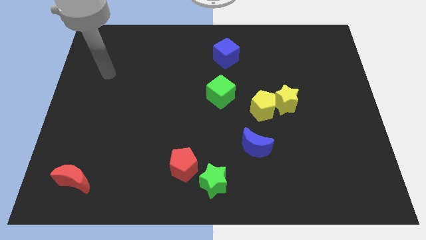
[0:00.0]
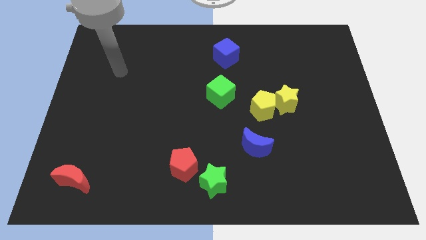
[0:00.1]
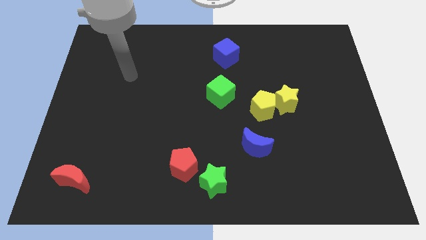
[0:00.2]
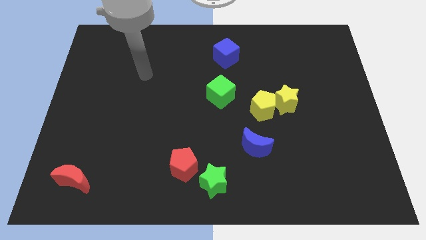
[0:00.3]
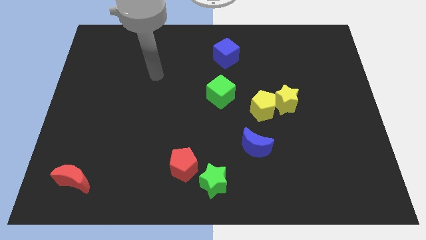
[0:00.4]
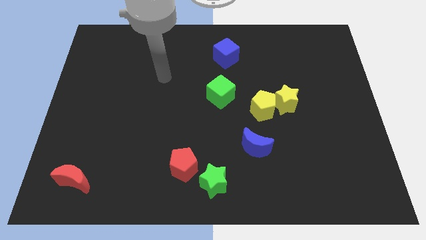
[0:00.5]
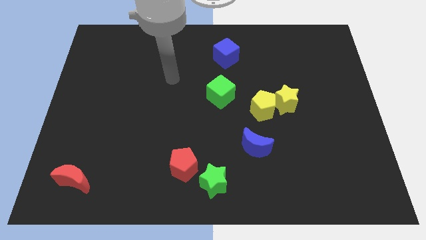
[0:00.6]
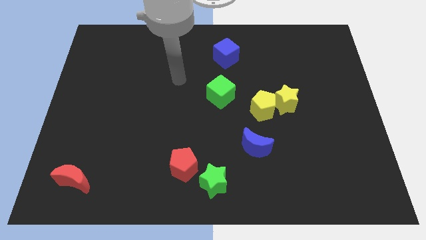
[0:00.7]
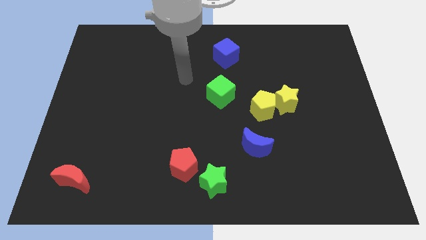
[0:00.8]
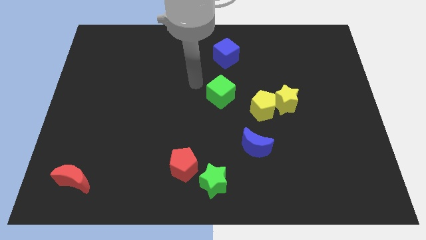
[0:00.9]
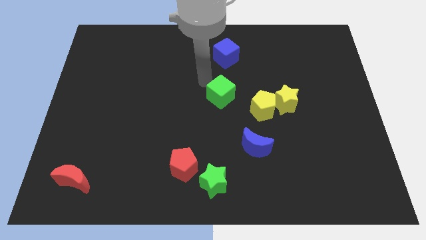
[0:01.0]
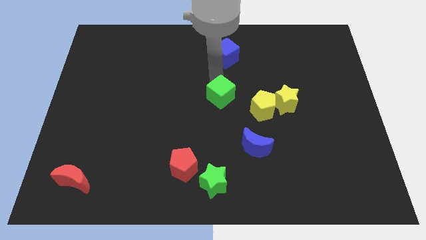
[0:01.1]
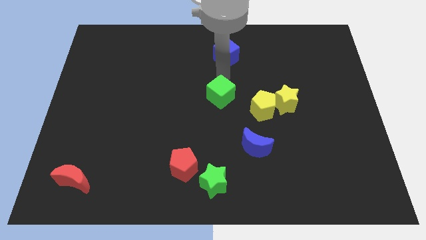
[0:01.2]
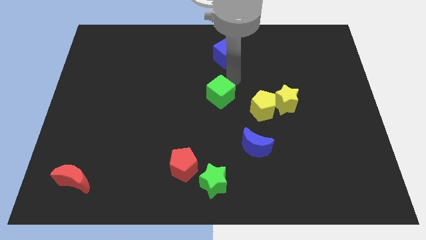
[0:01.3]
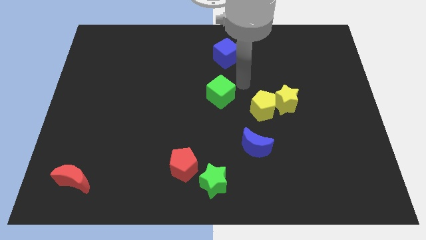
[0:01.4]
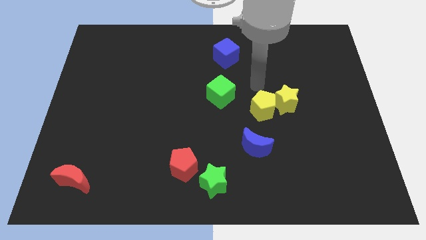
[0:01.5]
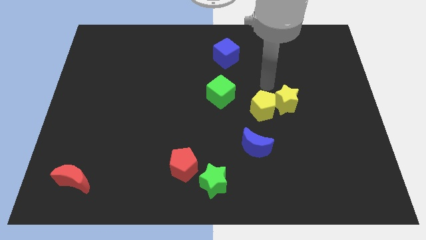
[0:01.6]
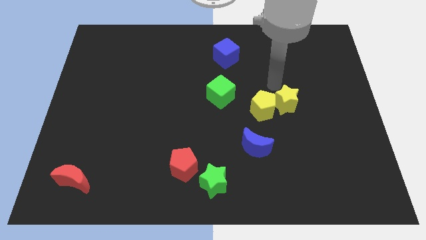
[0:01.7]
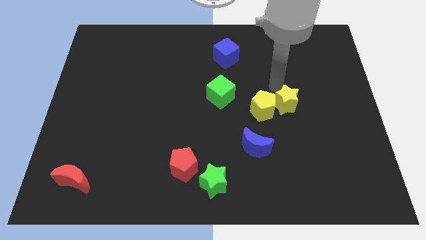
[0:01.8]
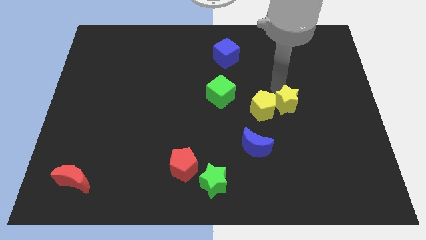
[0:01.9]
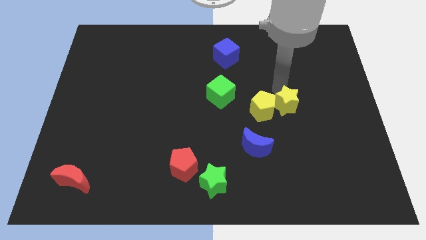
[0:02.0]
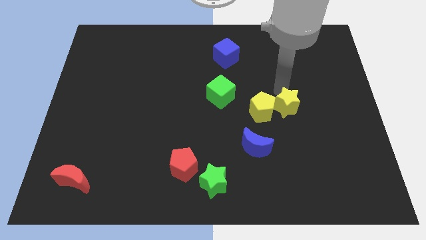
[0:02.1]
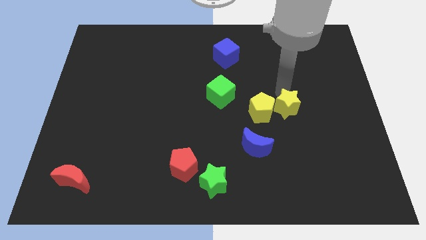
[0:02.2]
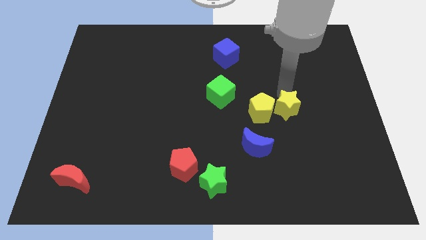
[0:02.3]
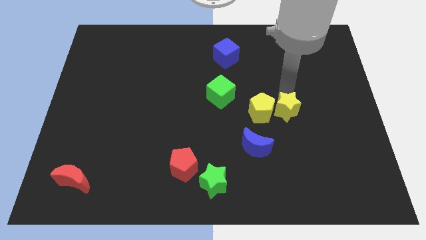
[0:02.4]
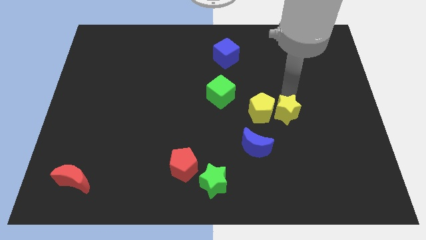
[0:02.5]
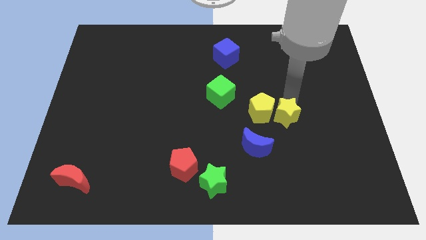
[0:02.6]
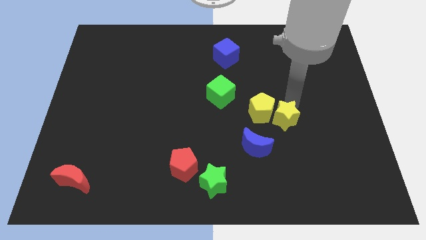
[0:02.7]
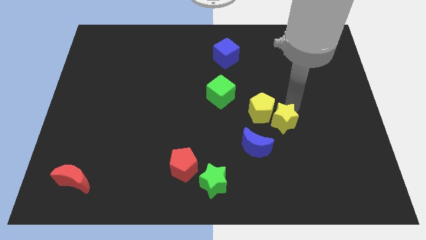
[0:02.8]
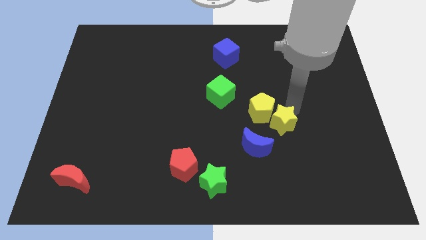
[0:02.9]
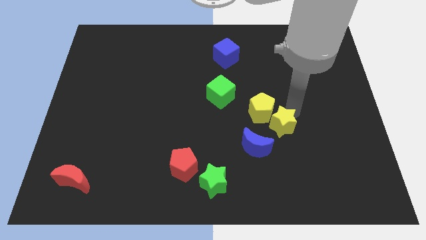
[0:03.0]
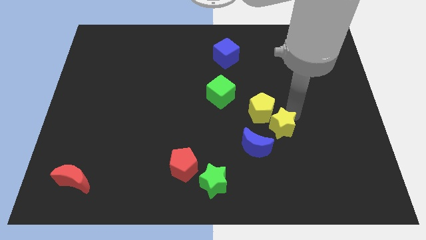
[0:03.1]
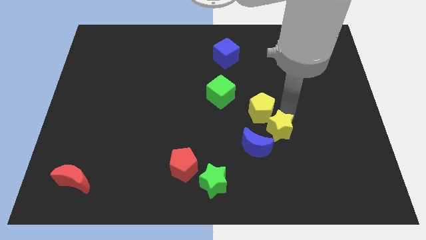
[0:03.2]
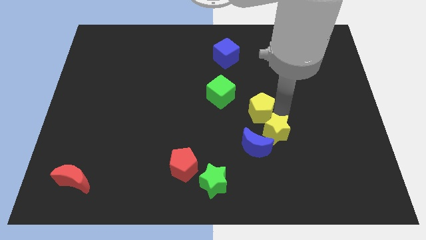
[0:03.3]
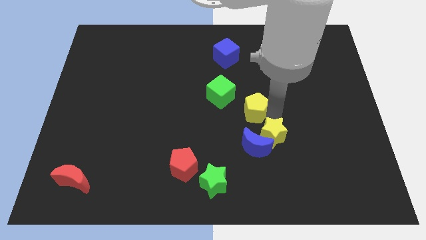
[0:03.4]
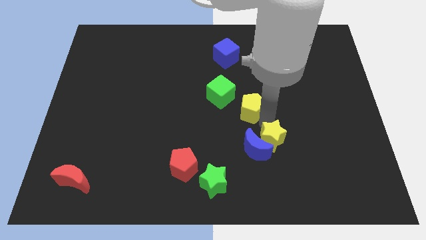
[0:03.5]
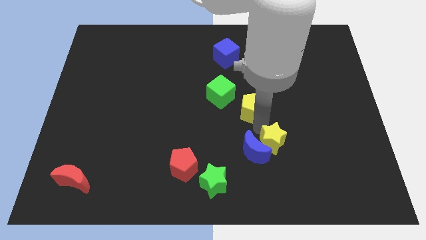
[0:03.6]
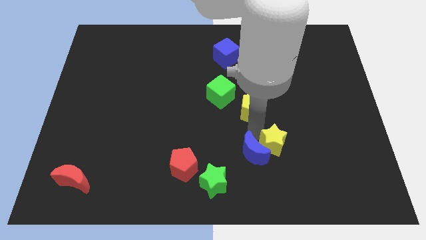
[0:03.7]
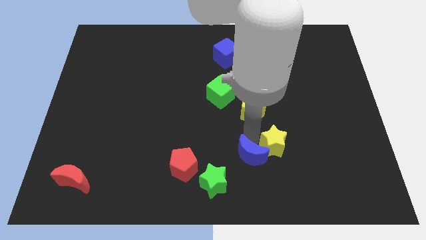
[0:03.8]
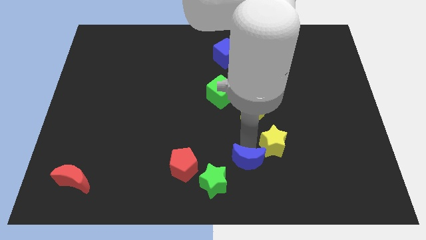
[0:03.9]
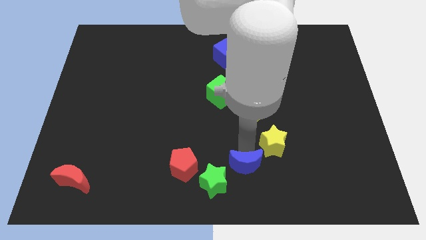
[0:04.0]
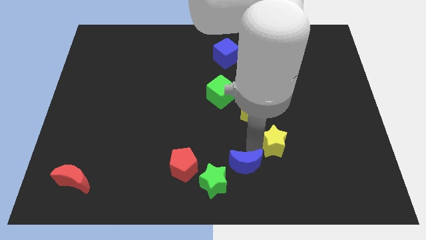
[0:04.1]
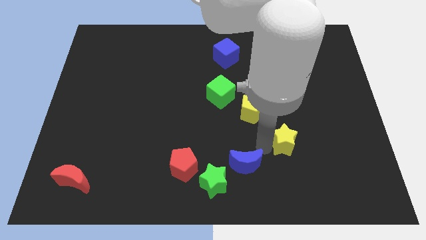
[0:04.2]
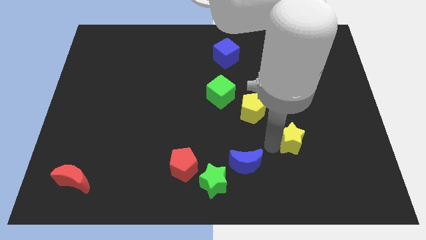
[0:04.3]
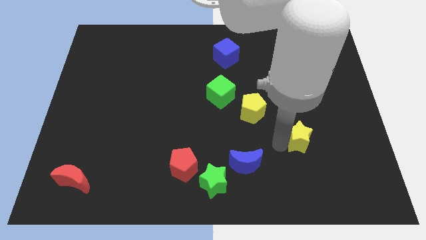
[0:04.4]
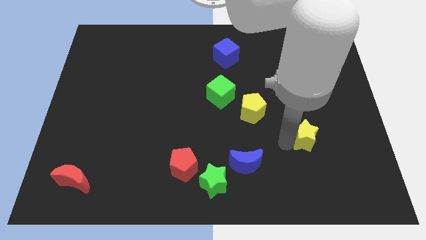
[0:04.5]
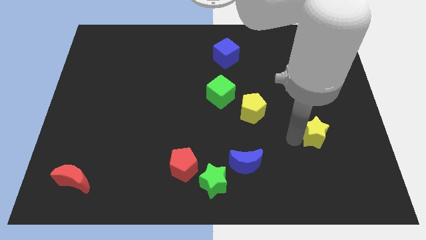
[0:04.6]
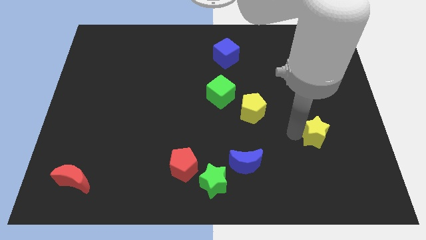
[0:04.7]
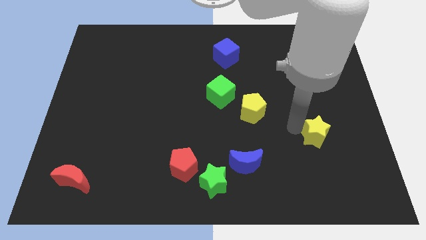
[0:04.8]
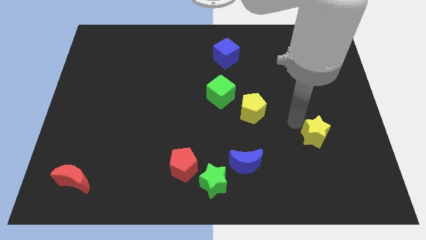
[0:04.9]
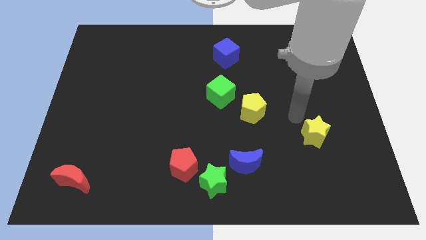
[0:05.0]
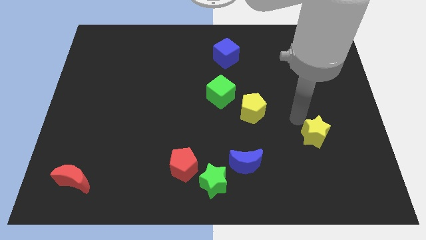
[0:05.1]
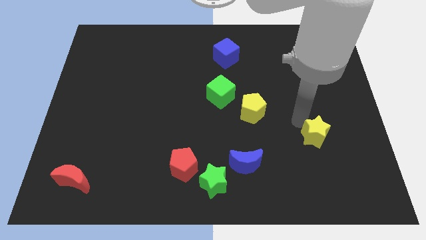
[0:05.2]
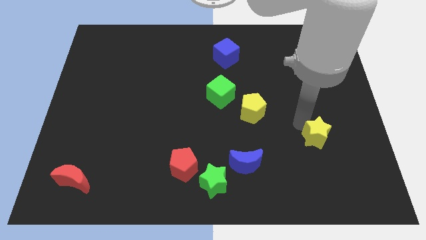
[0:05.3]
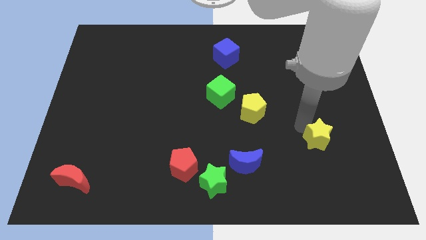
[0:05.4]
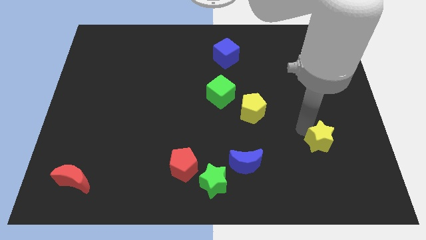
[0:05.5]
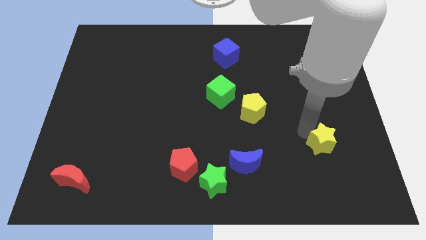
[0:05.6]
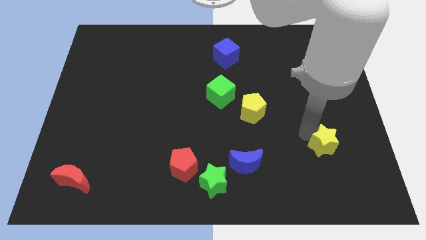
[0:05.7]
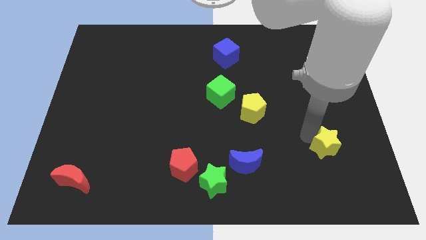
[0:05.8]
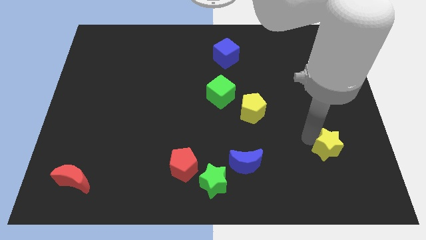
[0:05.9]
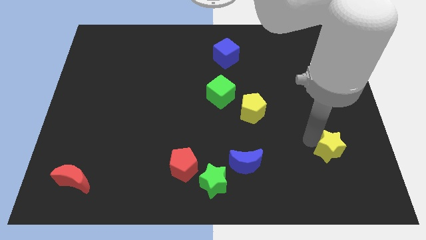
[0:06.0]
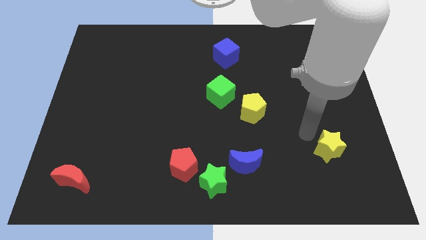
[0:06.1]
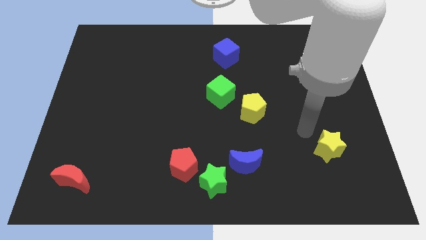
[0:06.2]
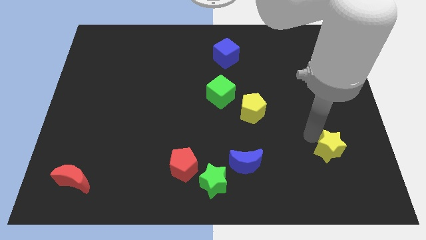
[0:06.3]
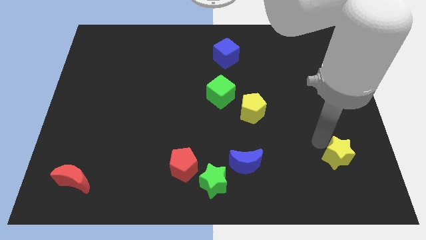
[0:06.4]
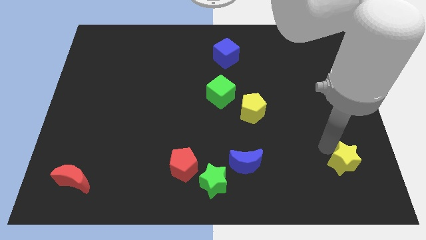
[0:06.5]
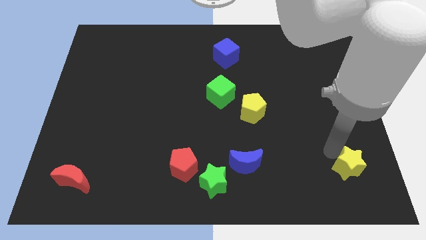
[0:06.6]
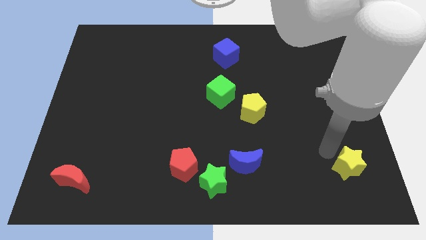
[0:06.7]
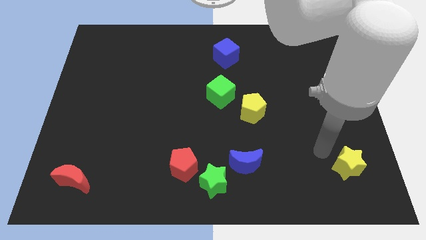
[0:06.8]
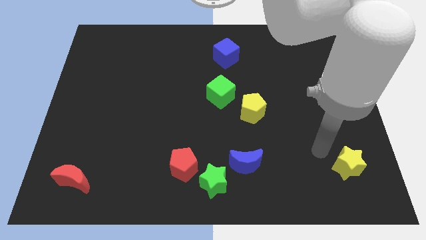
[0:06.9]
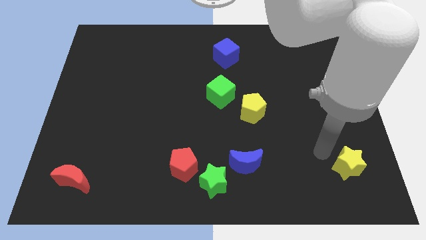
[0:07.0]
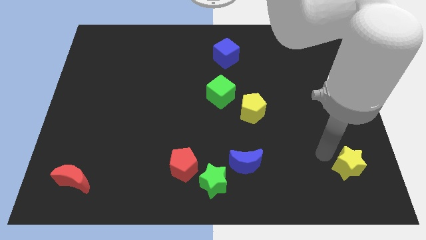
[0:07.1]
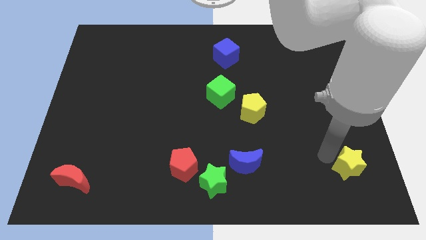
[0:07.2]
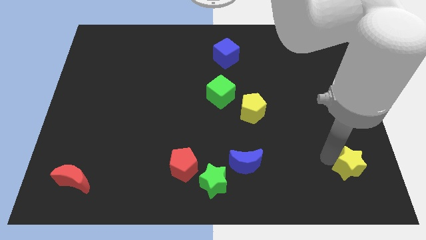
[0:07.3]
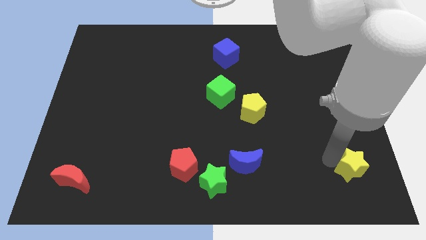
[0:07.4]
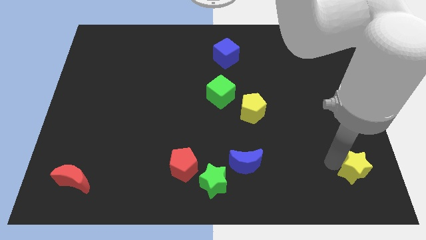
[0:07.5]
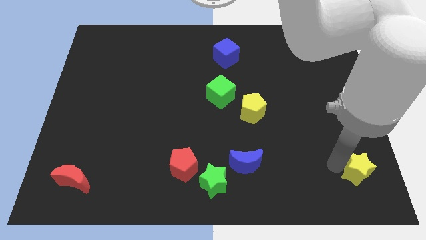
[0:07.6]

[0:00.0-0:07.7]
move the yellow star to the bottom right corner
